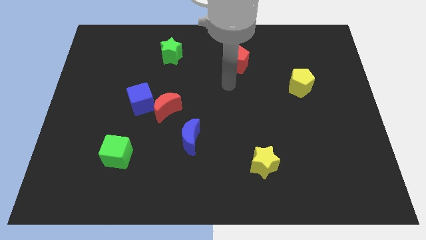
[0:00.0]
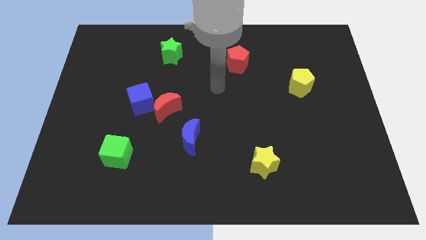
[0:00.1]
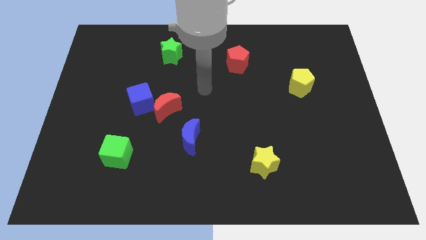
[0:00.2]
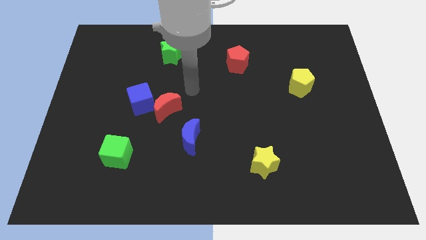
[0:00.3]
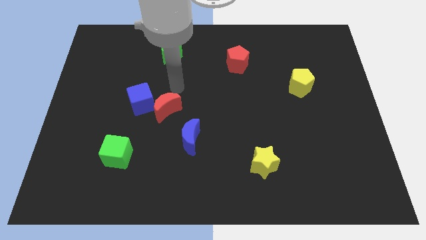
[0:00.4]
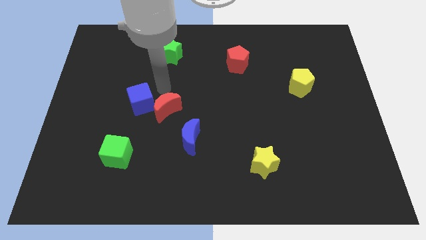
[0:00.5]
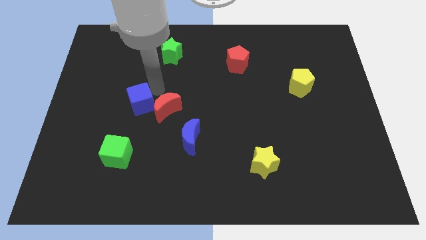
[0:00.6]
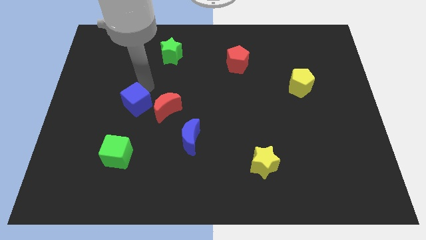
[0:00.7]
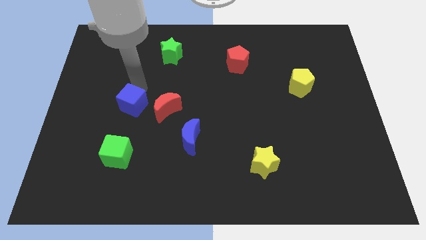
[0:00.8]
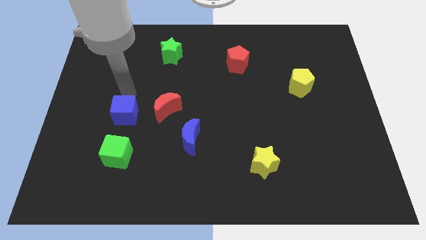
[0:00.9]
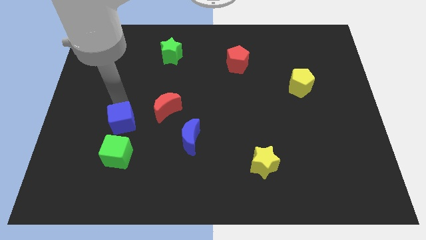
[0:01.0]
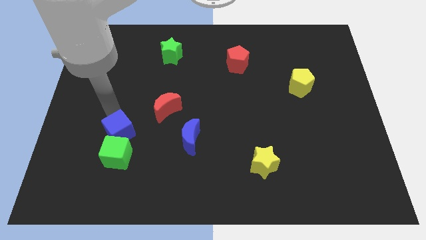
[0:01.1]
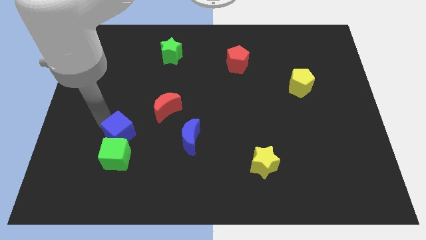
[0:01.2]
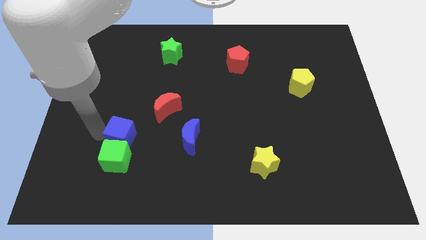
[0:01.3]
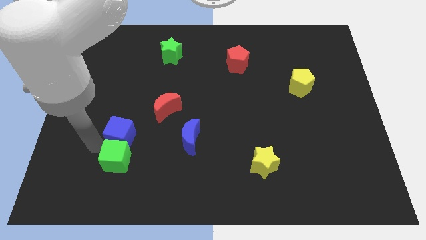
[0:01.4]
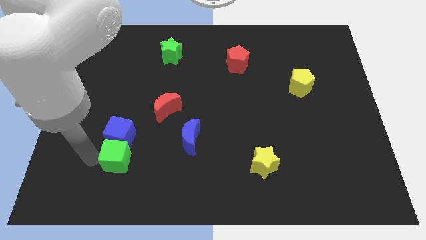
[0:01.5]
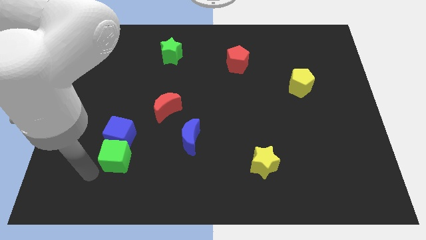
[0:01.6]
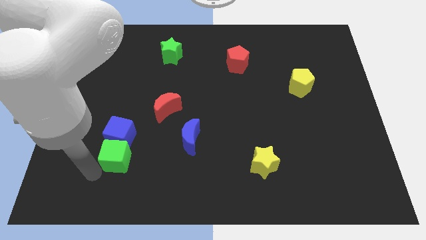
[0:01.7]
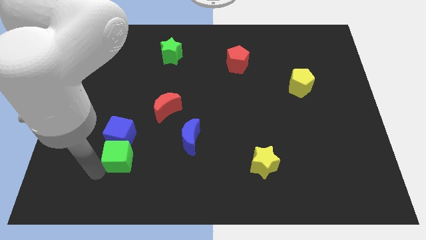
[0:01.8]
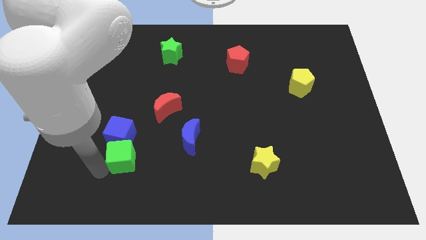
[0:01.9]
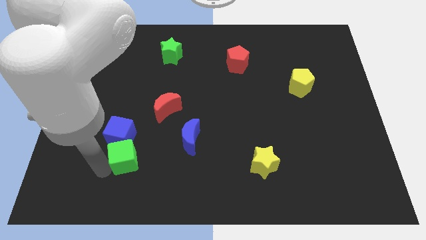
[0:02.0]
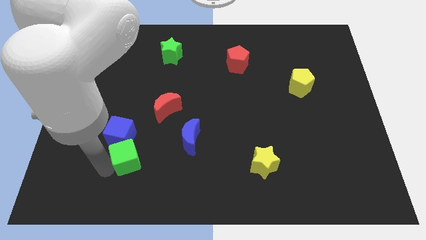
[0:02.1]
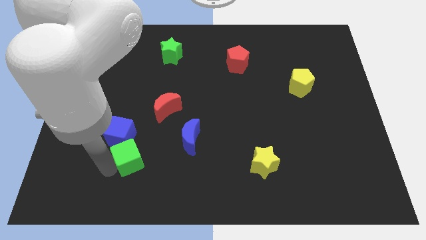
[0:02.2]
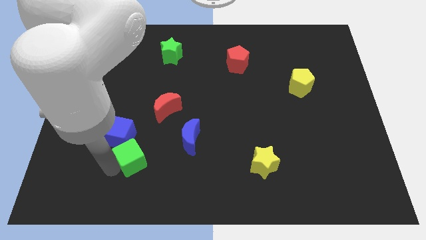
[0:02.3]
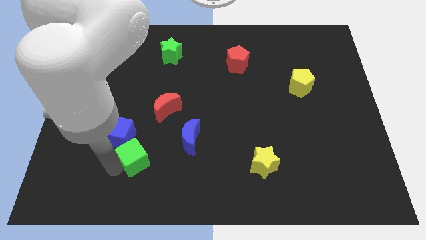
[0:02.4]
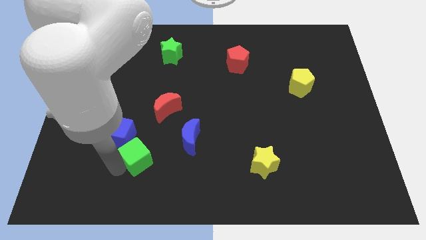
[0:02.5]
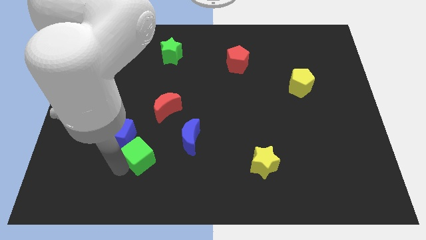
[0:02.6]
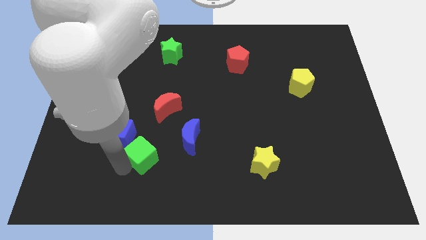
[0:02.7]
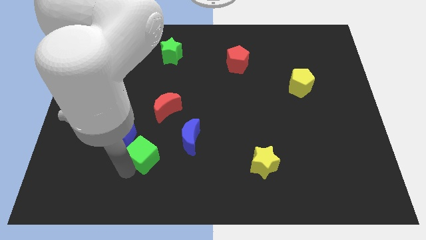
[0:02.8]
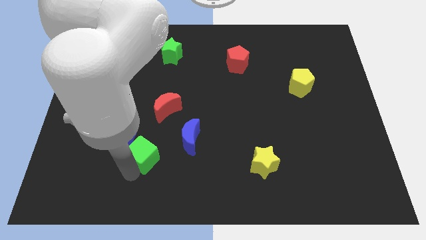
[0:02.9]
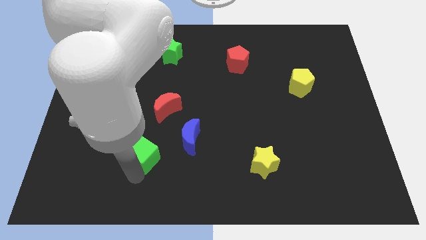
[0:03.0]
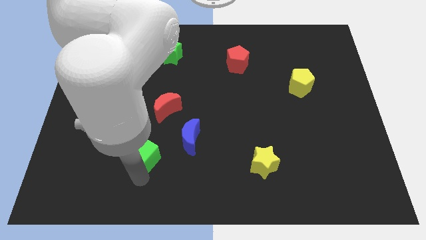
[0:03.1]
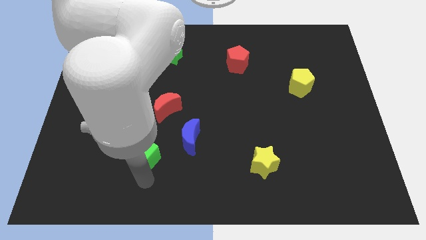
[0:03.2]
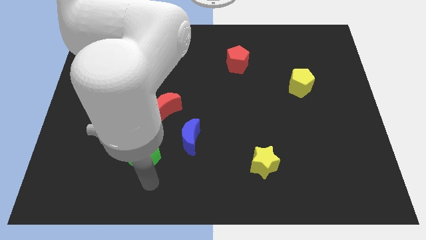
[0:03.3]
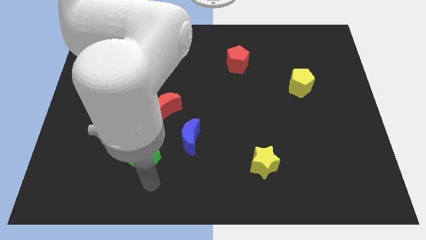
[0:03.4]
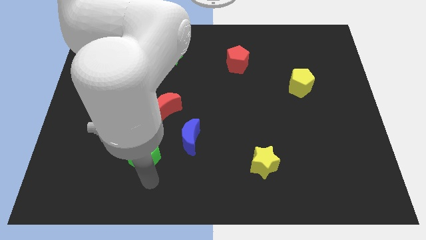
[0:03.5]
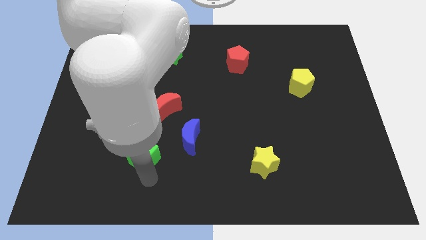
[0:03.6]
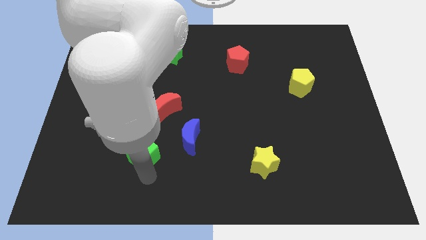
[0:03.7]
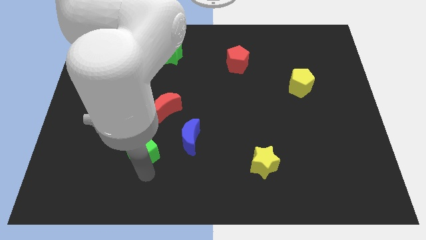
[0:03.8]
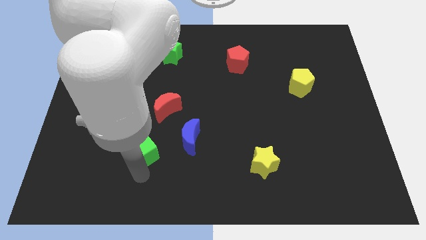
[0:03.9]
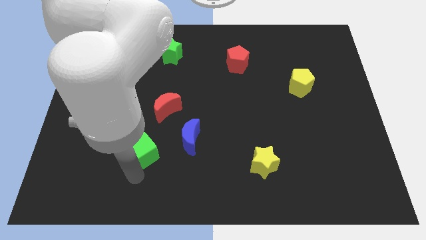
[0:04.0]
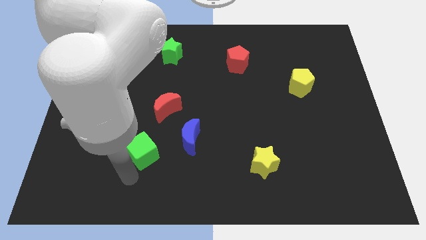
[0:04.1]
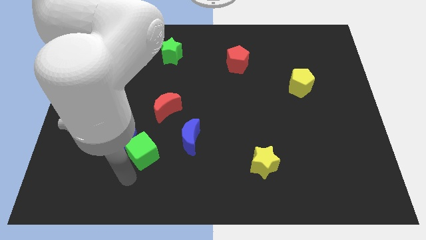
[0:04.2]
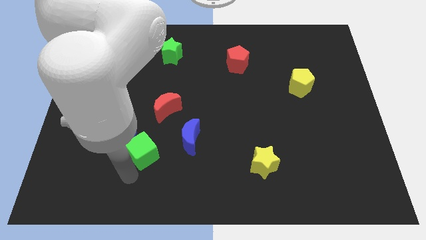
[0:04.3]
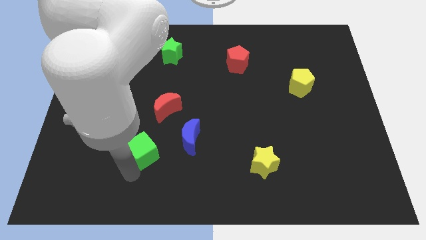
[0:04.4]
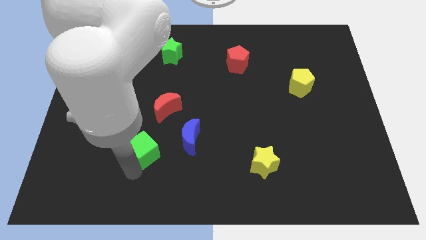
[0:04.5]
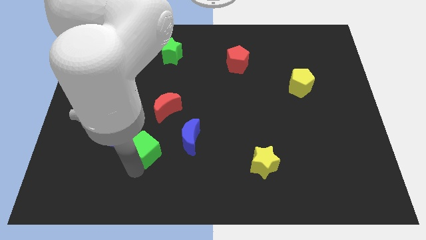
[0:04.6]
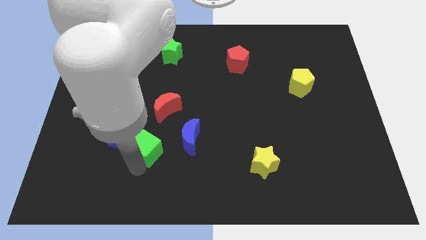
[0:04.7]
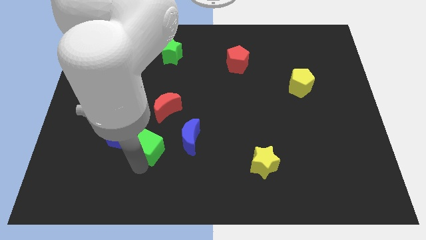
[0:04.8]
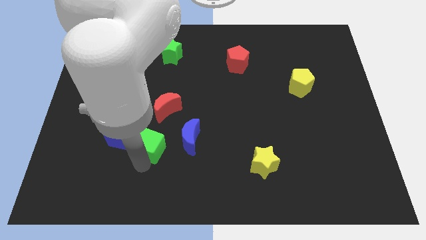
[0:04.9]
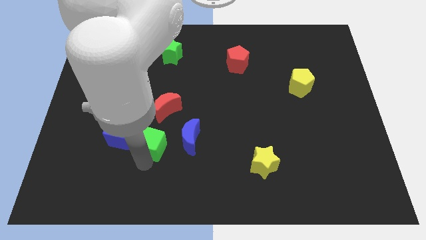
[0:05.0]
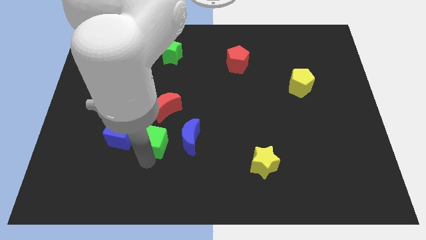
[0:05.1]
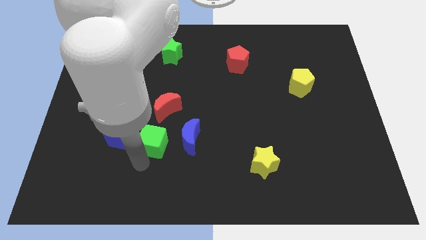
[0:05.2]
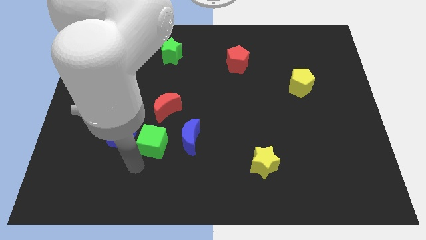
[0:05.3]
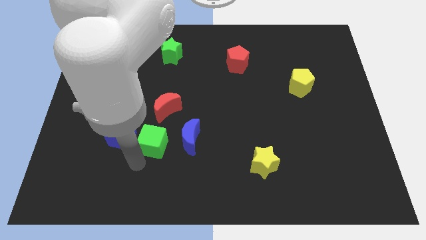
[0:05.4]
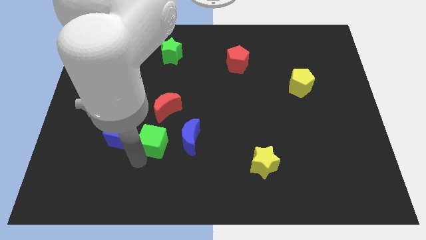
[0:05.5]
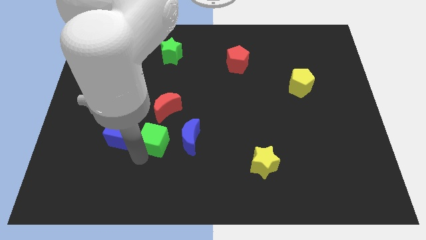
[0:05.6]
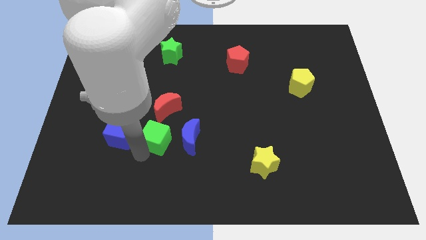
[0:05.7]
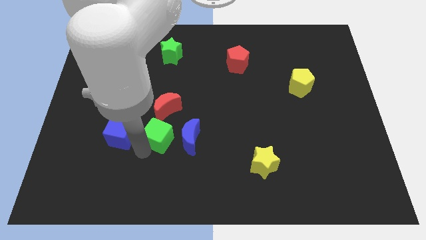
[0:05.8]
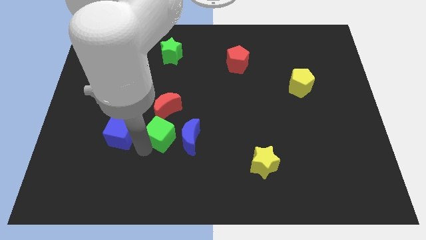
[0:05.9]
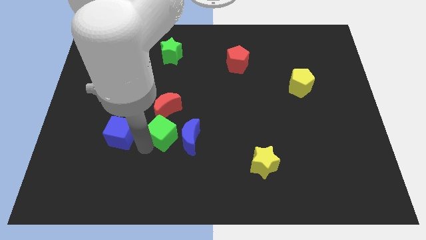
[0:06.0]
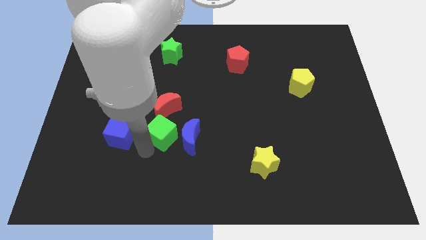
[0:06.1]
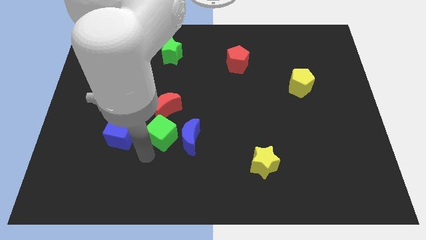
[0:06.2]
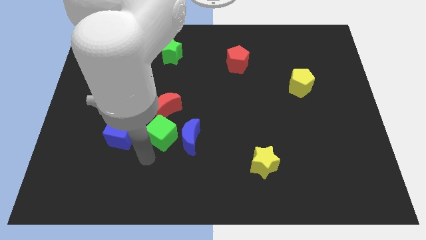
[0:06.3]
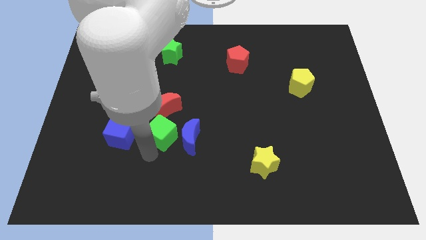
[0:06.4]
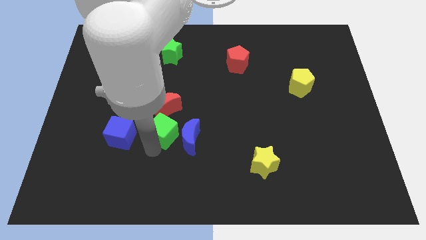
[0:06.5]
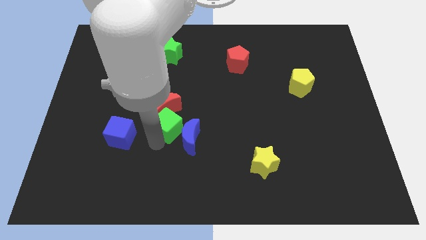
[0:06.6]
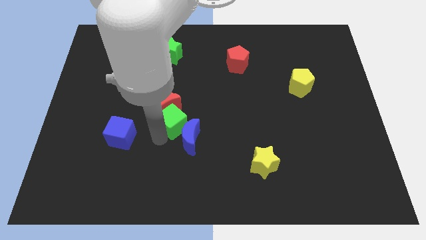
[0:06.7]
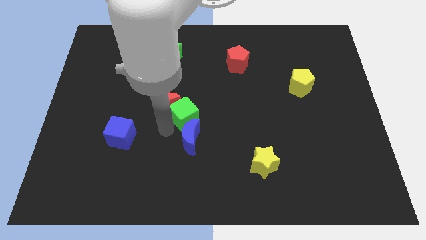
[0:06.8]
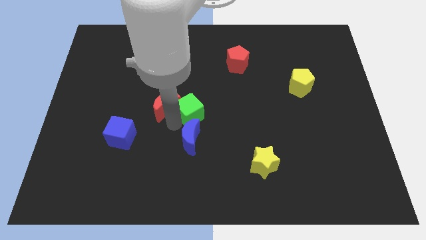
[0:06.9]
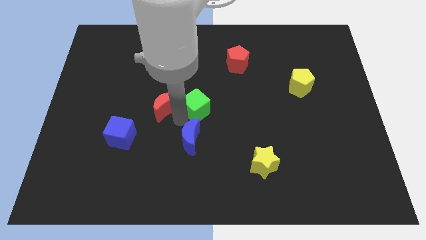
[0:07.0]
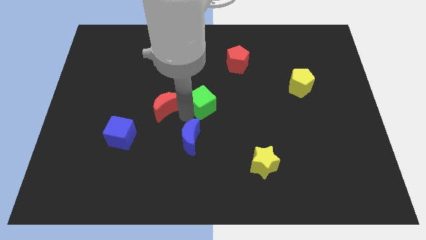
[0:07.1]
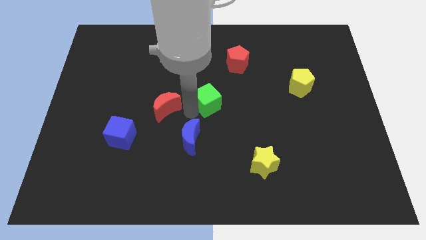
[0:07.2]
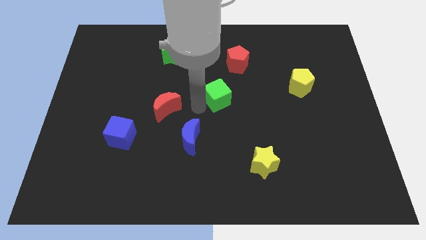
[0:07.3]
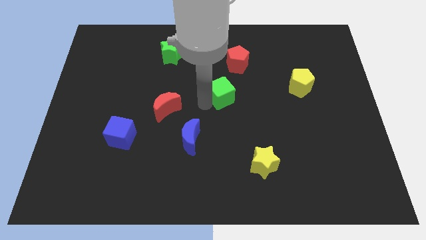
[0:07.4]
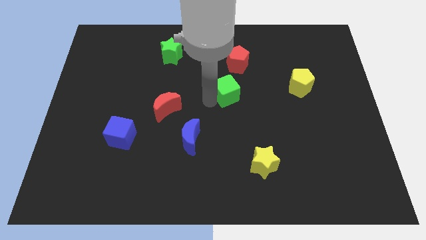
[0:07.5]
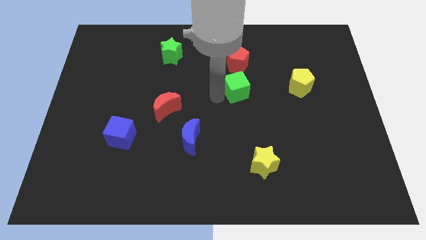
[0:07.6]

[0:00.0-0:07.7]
slide the green cube to the left of the yellow pentagon
